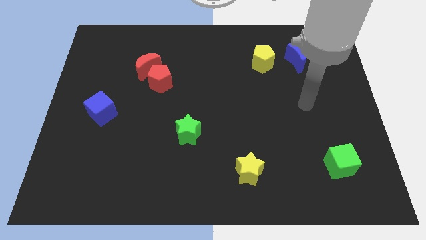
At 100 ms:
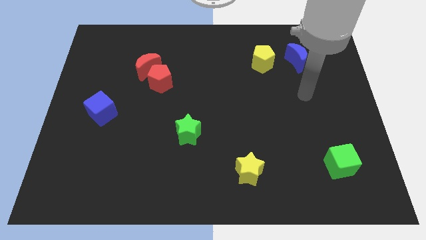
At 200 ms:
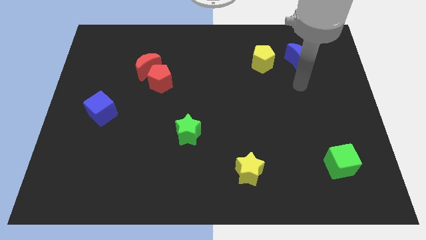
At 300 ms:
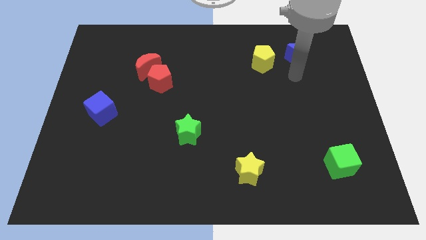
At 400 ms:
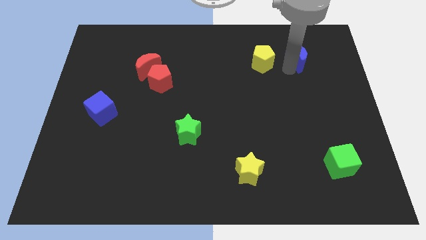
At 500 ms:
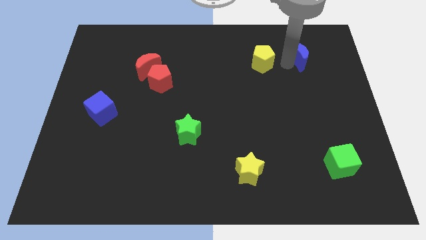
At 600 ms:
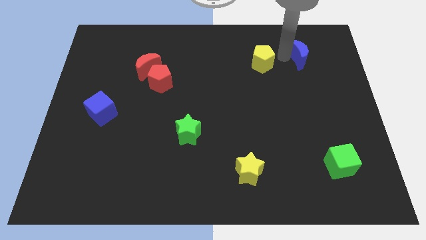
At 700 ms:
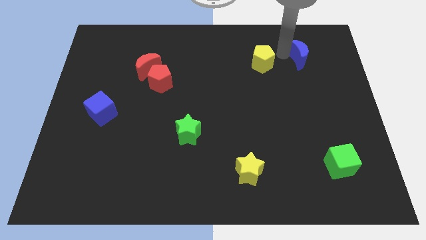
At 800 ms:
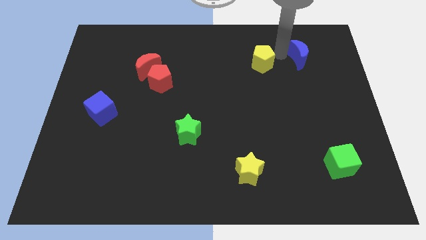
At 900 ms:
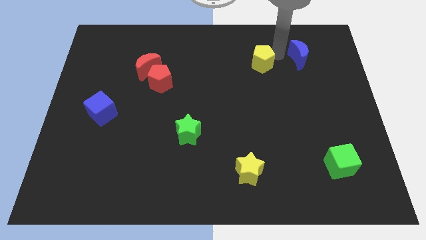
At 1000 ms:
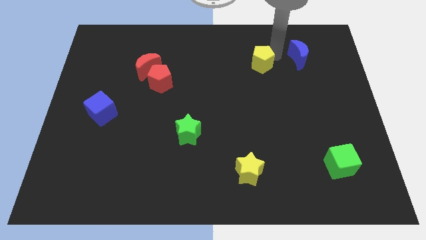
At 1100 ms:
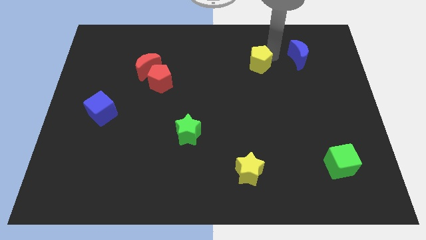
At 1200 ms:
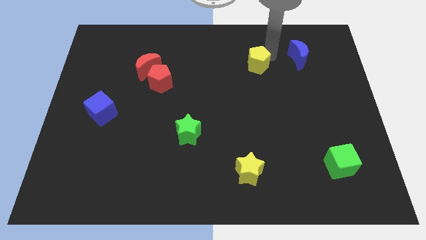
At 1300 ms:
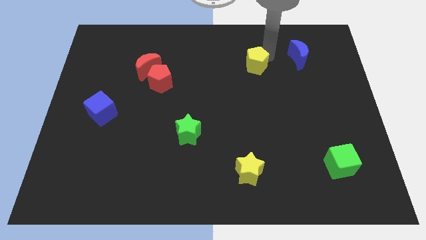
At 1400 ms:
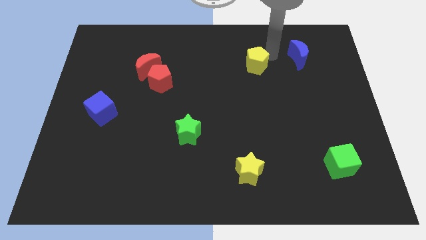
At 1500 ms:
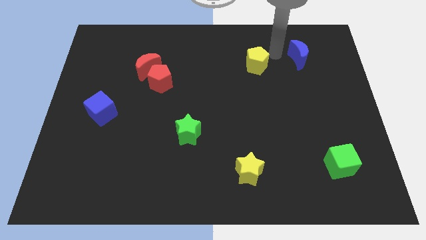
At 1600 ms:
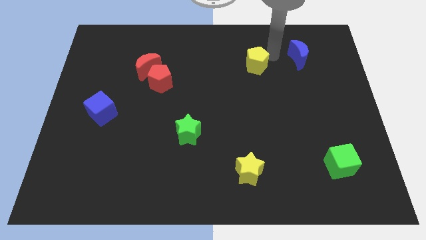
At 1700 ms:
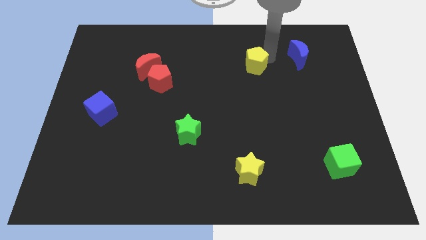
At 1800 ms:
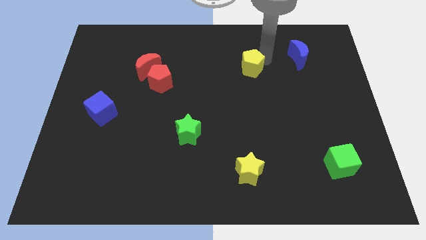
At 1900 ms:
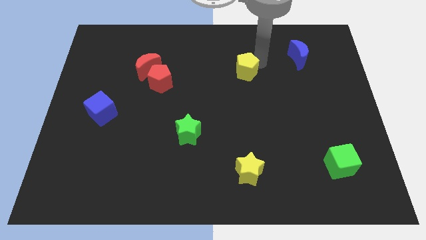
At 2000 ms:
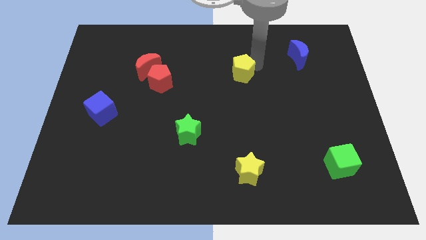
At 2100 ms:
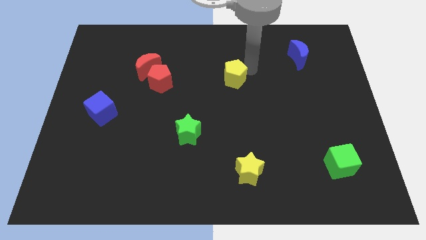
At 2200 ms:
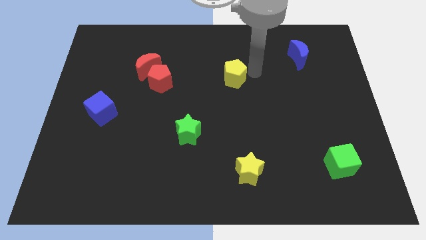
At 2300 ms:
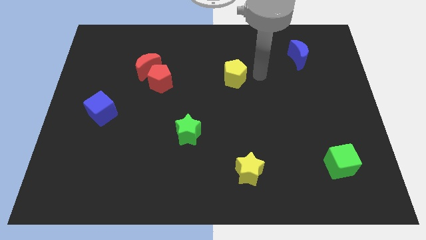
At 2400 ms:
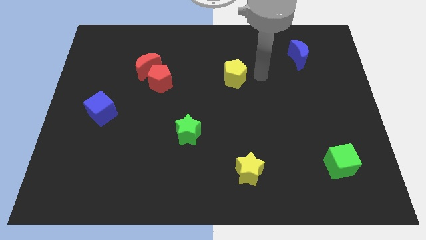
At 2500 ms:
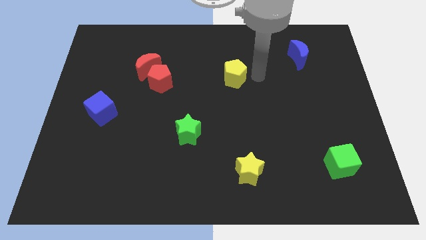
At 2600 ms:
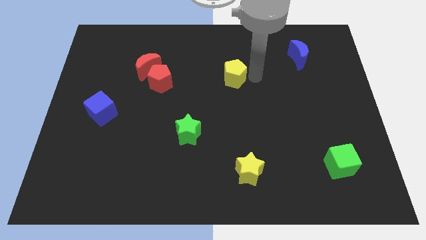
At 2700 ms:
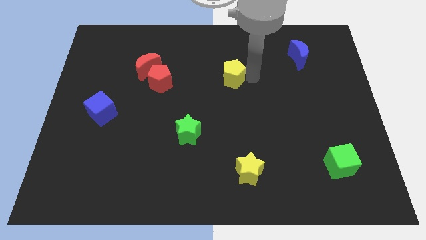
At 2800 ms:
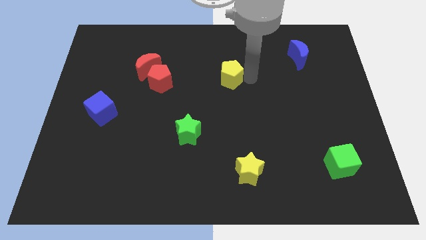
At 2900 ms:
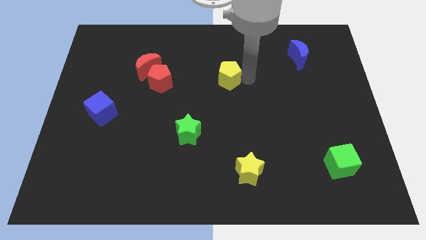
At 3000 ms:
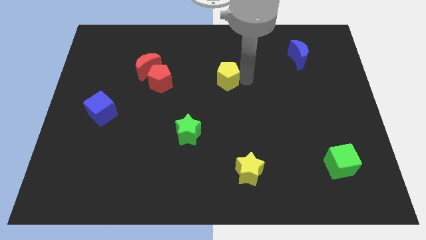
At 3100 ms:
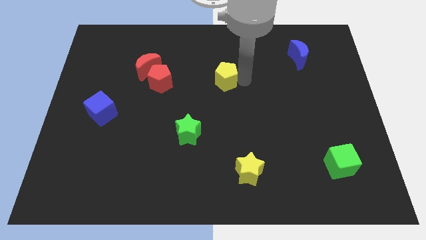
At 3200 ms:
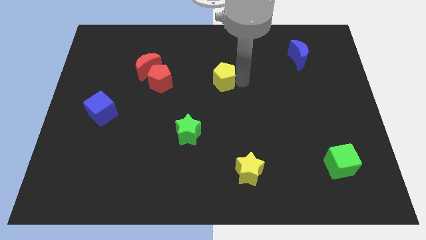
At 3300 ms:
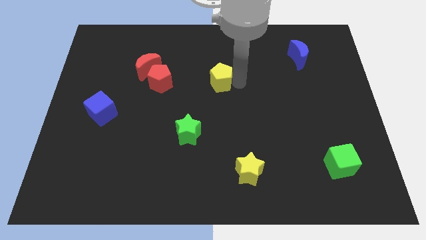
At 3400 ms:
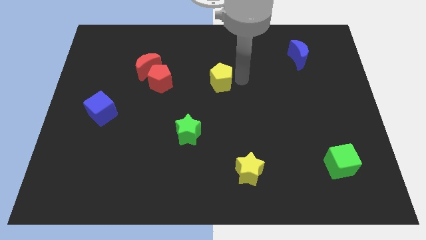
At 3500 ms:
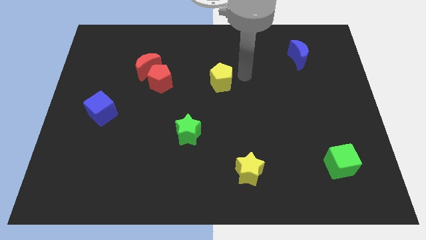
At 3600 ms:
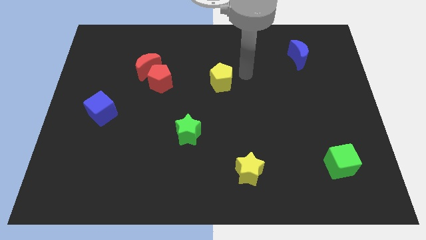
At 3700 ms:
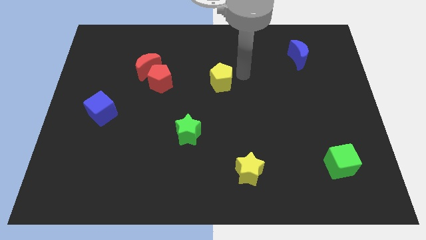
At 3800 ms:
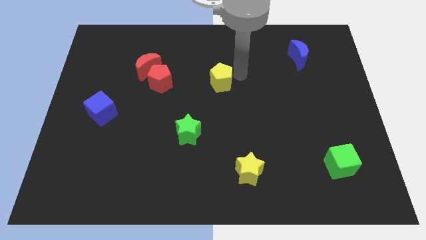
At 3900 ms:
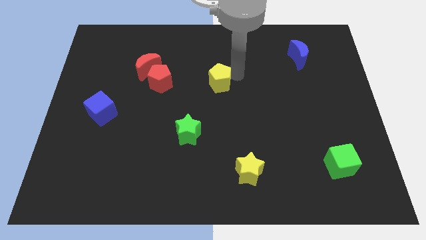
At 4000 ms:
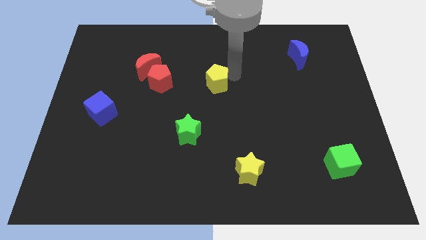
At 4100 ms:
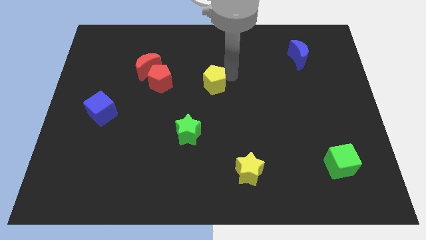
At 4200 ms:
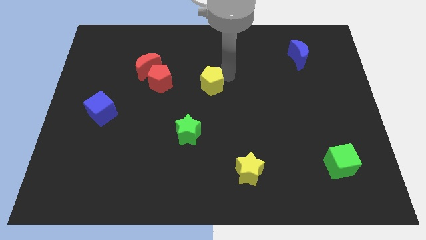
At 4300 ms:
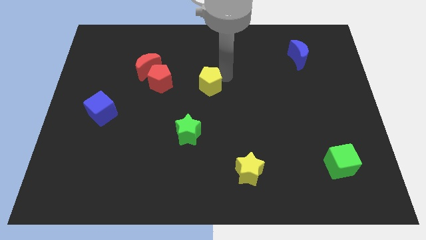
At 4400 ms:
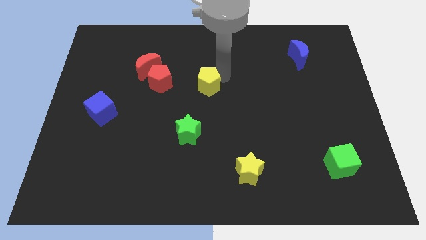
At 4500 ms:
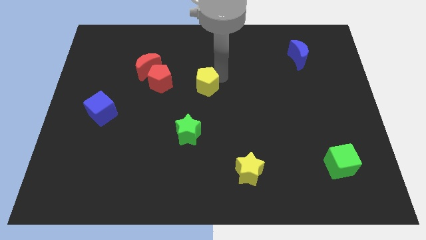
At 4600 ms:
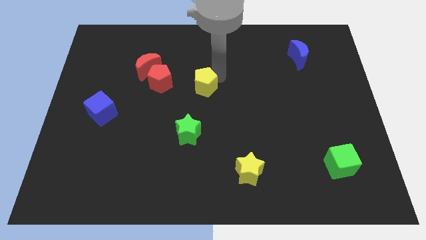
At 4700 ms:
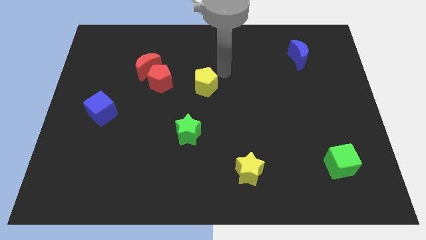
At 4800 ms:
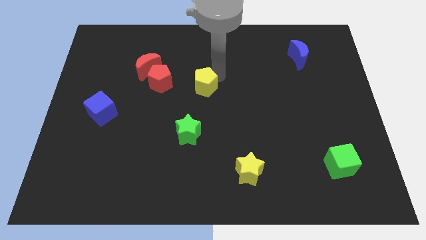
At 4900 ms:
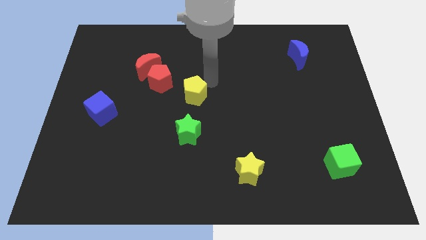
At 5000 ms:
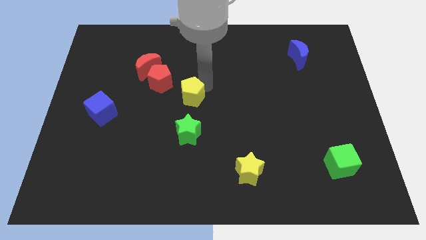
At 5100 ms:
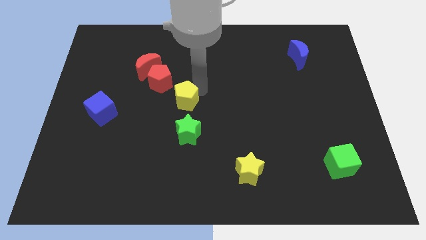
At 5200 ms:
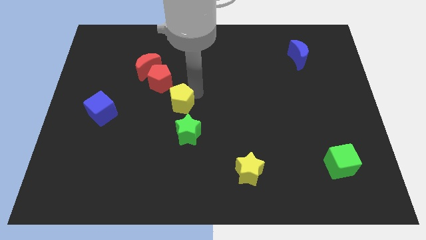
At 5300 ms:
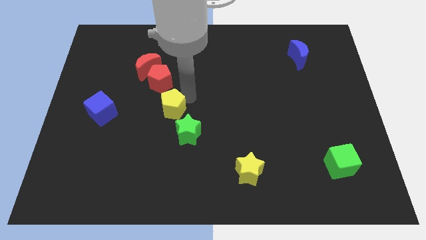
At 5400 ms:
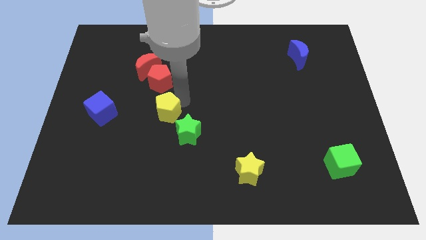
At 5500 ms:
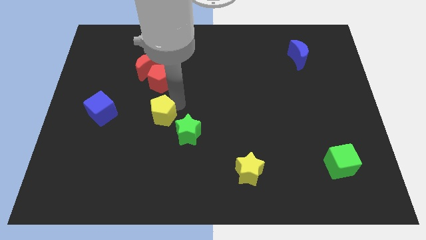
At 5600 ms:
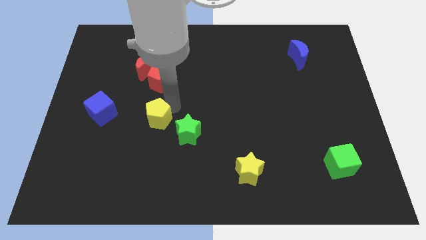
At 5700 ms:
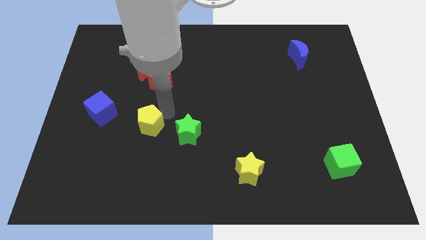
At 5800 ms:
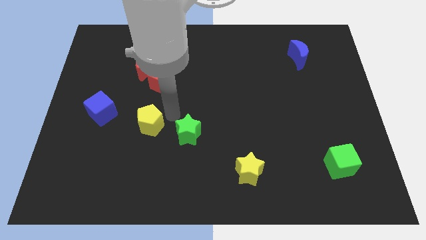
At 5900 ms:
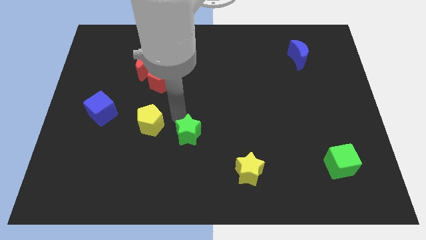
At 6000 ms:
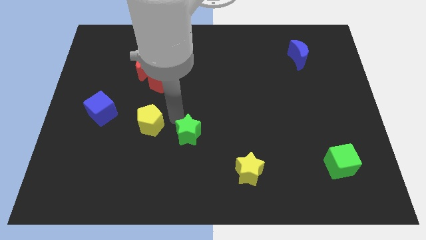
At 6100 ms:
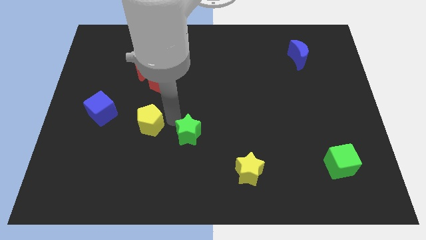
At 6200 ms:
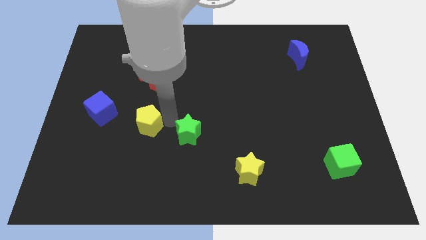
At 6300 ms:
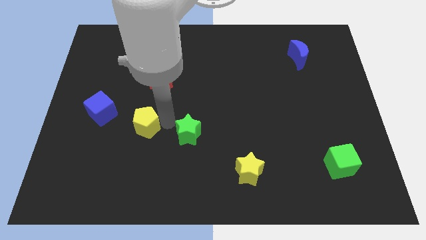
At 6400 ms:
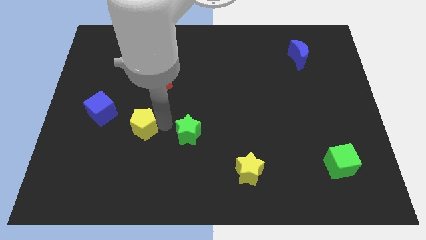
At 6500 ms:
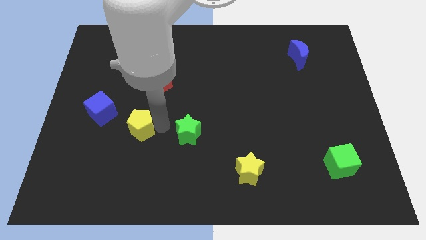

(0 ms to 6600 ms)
push the yellow pentagon to the bottom right side of the blue cube

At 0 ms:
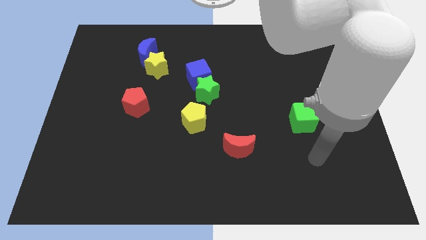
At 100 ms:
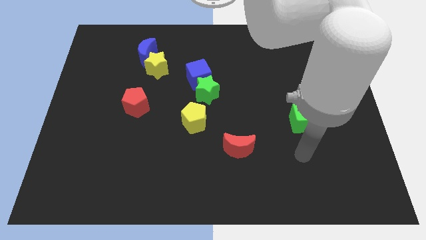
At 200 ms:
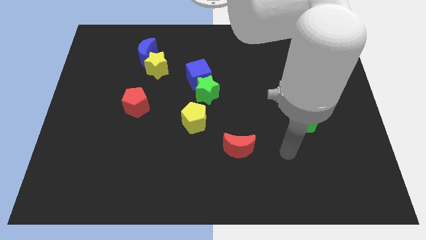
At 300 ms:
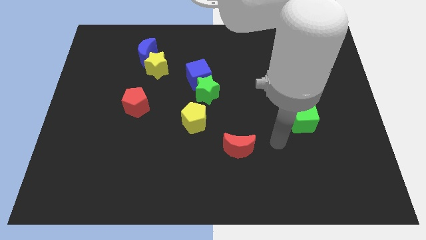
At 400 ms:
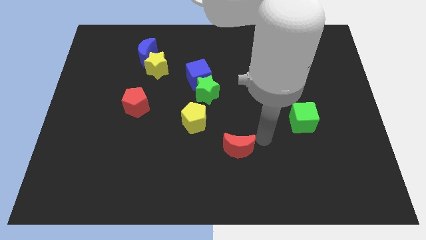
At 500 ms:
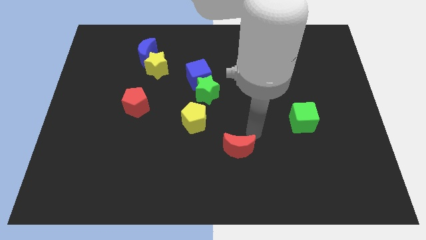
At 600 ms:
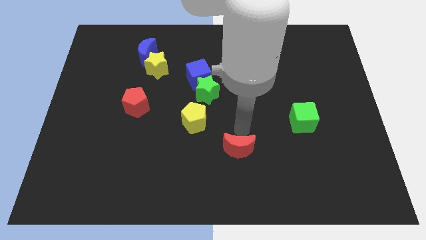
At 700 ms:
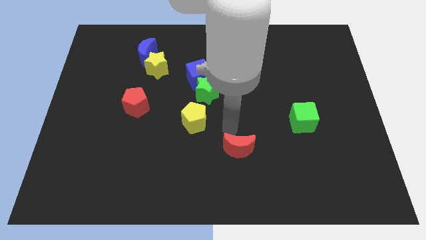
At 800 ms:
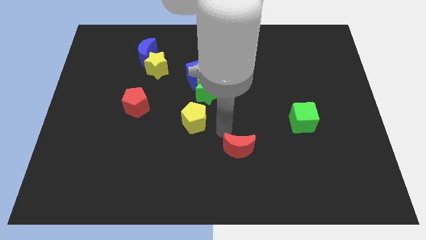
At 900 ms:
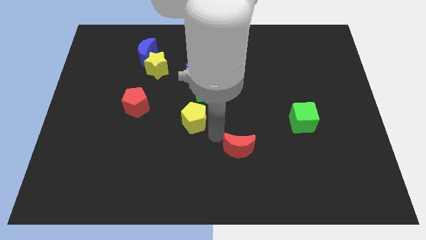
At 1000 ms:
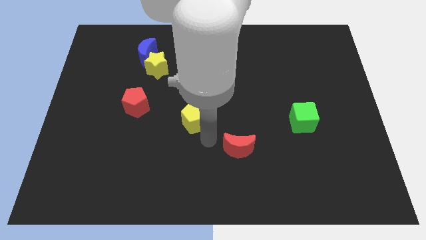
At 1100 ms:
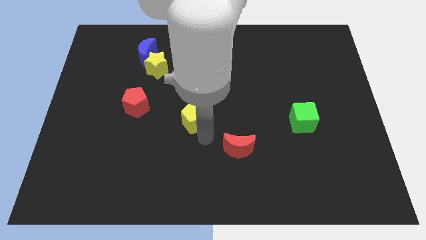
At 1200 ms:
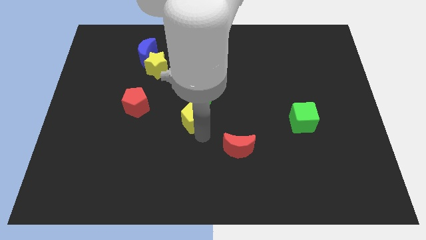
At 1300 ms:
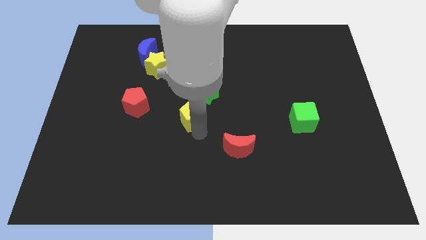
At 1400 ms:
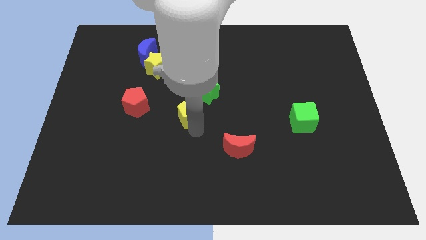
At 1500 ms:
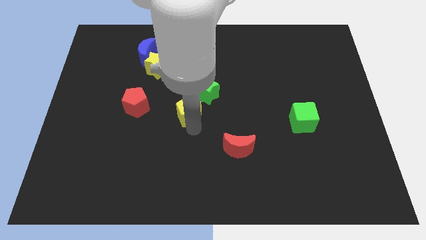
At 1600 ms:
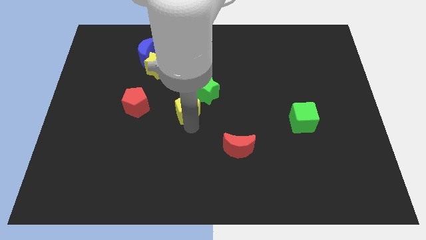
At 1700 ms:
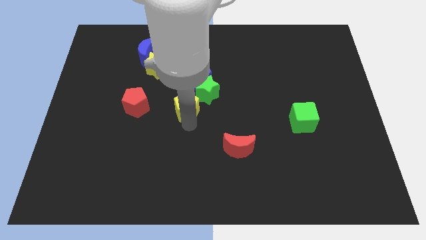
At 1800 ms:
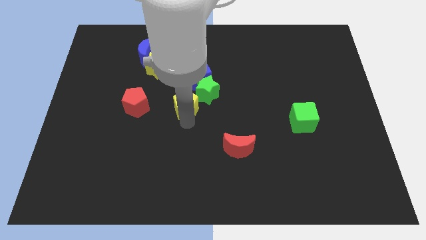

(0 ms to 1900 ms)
slide the yellow pentagon diagonally down and to the left of the blue cube
